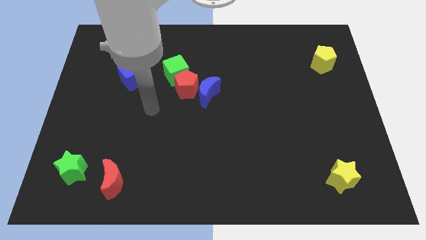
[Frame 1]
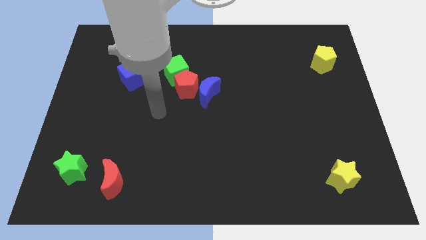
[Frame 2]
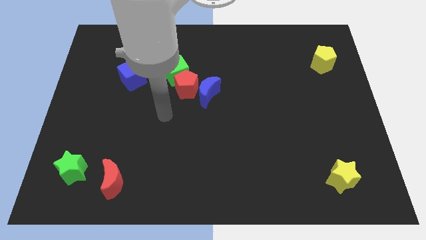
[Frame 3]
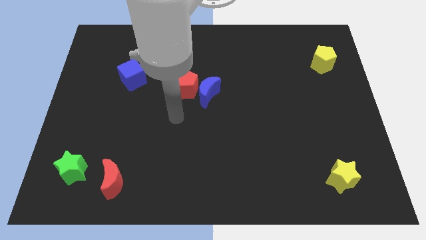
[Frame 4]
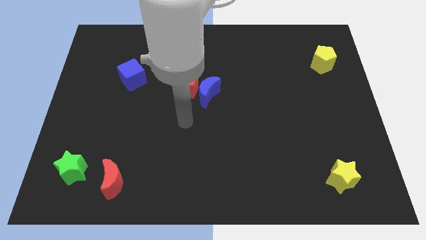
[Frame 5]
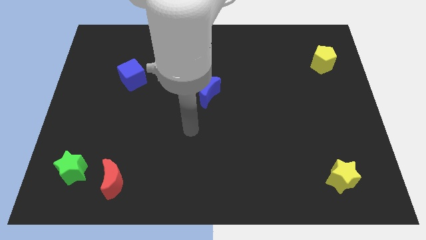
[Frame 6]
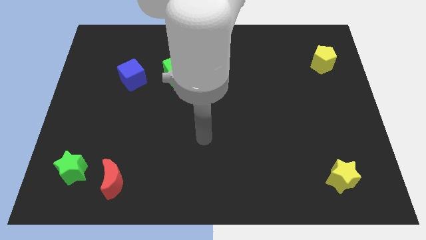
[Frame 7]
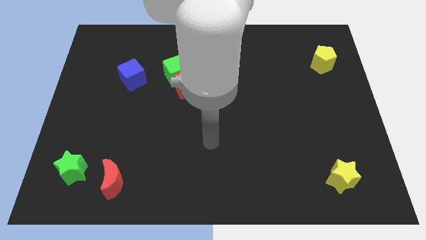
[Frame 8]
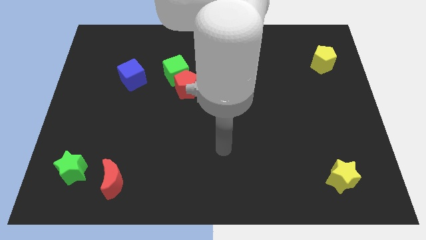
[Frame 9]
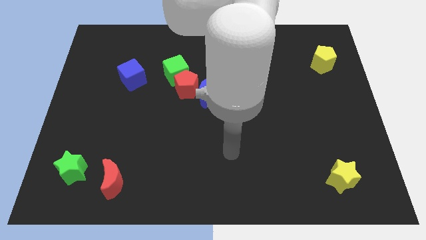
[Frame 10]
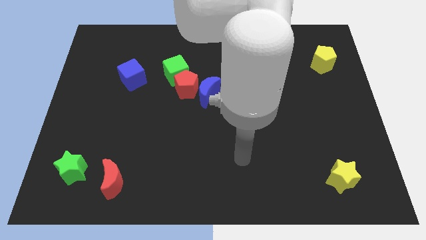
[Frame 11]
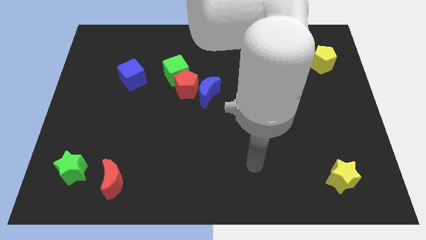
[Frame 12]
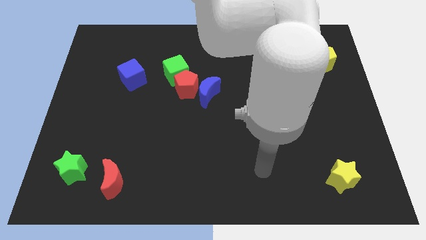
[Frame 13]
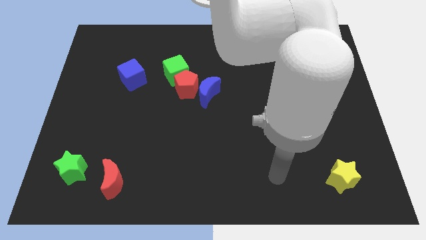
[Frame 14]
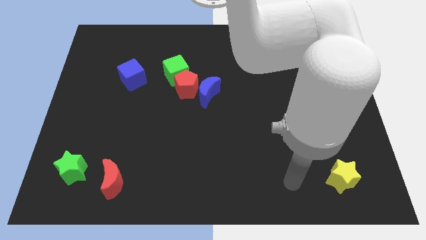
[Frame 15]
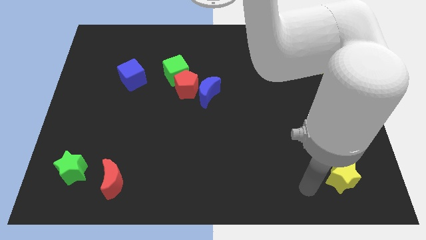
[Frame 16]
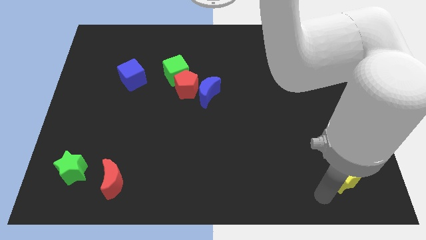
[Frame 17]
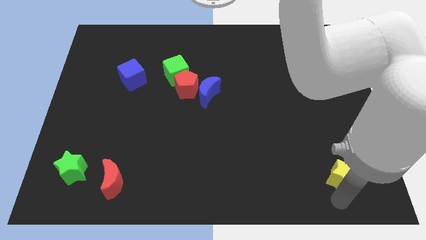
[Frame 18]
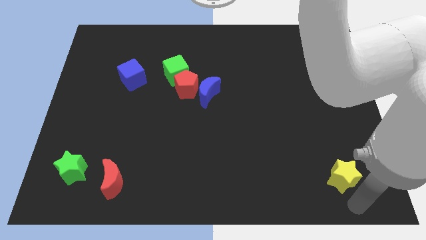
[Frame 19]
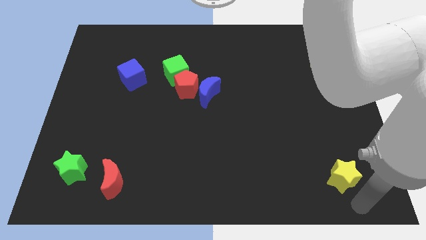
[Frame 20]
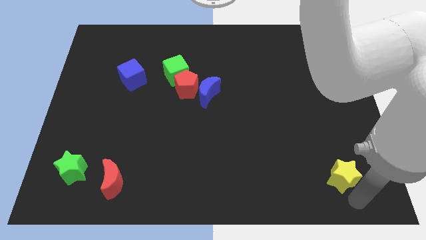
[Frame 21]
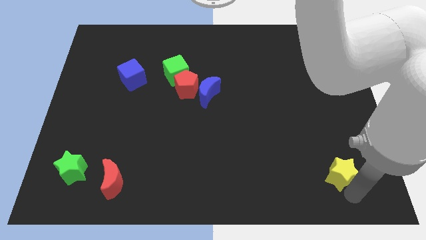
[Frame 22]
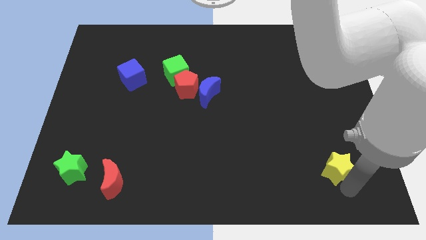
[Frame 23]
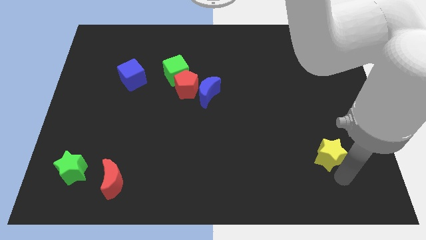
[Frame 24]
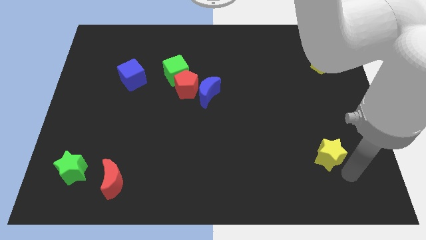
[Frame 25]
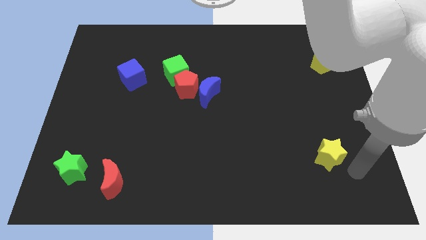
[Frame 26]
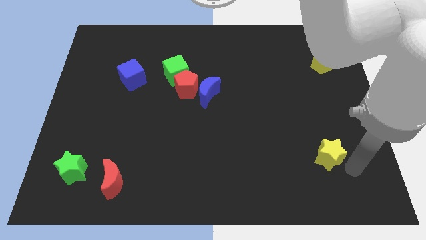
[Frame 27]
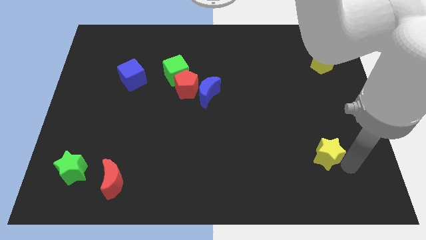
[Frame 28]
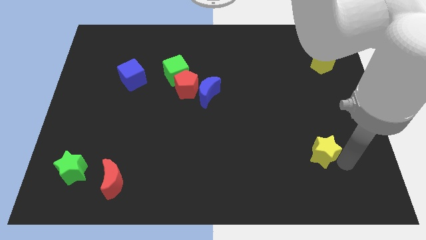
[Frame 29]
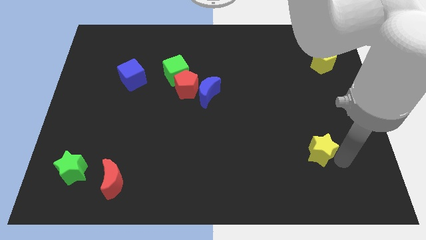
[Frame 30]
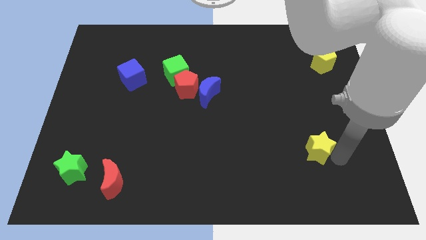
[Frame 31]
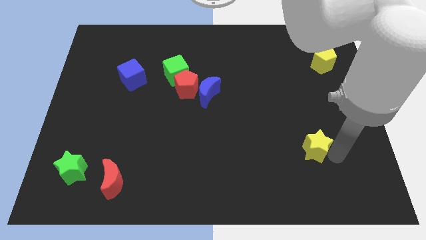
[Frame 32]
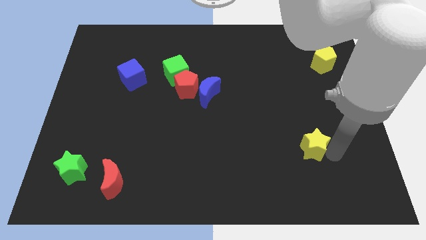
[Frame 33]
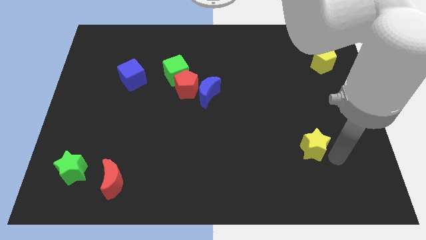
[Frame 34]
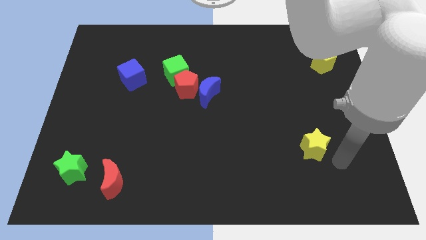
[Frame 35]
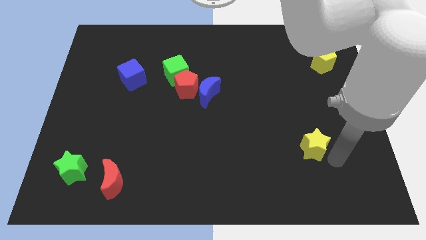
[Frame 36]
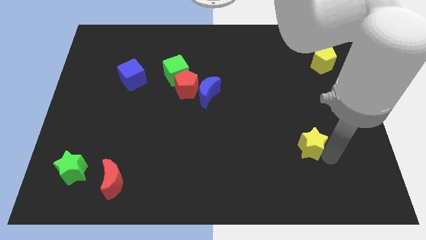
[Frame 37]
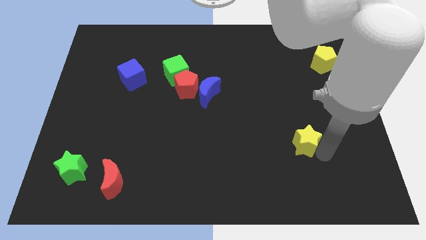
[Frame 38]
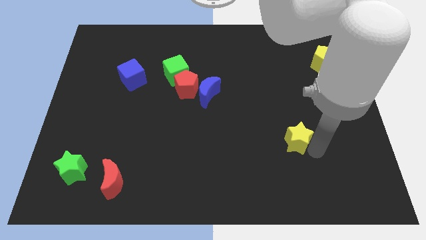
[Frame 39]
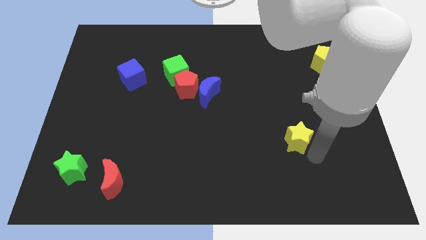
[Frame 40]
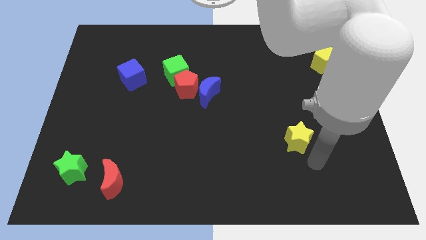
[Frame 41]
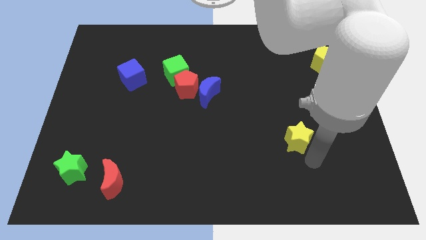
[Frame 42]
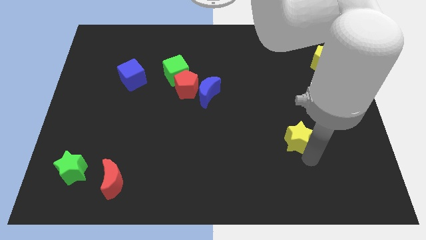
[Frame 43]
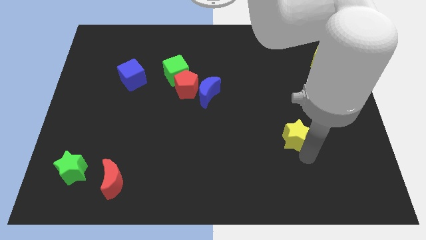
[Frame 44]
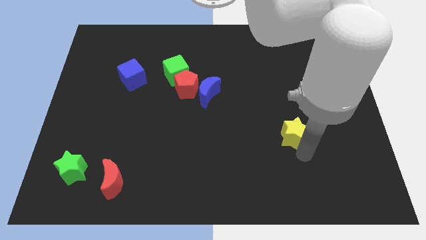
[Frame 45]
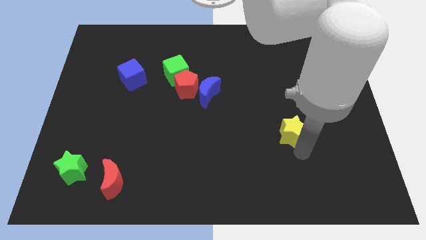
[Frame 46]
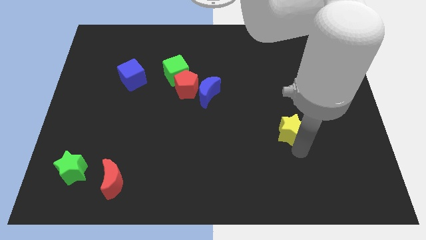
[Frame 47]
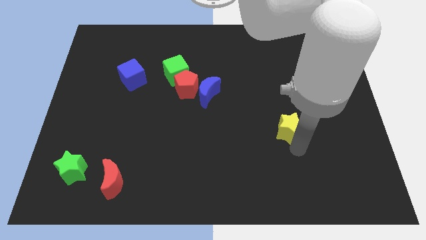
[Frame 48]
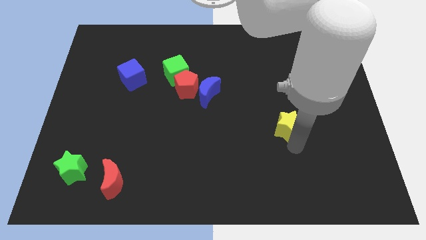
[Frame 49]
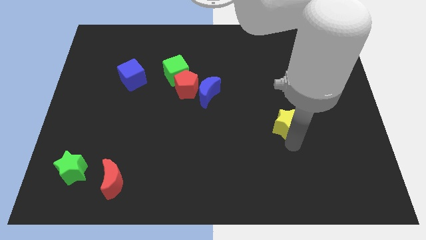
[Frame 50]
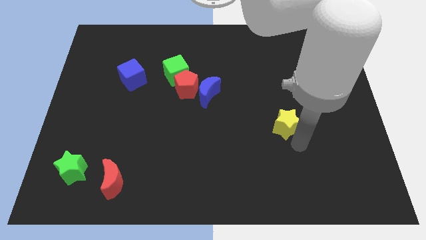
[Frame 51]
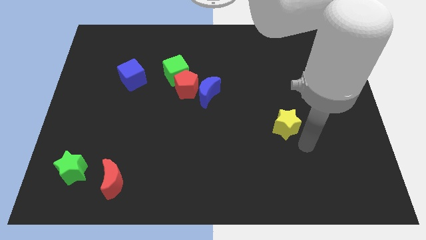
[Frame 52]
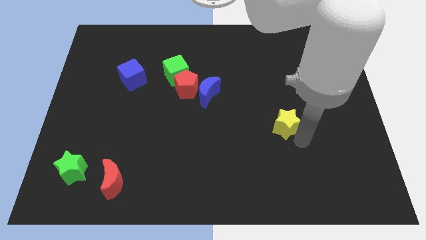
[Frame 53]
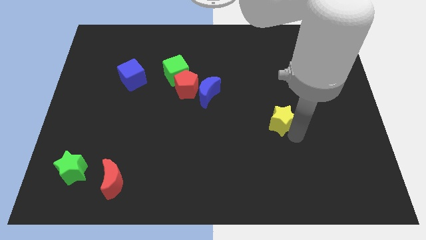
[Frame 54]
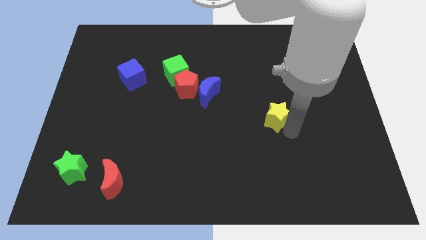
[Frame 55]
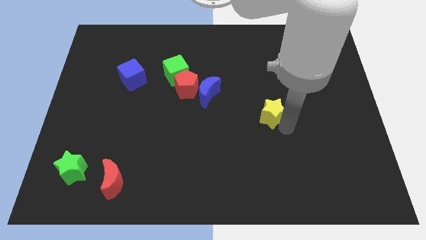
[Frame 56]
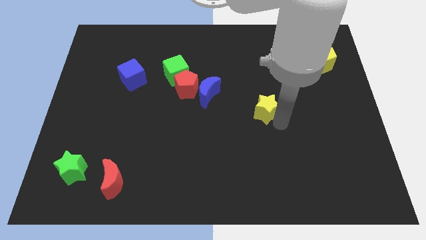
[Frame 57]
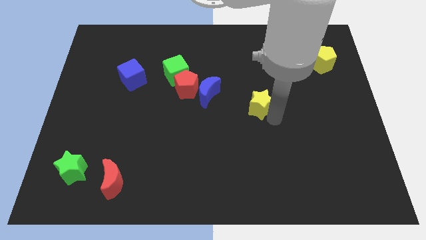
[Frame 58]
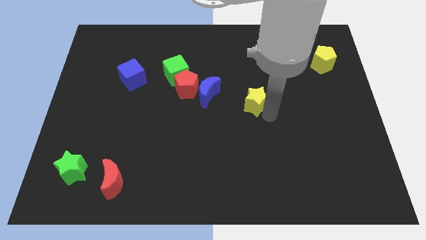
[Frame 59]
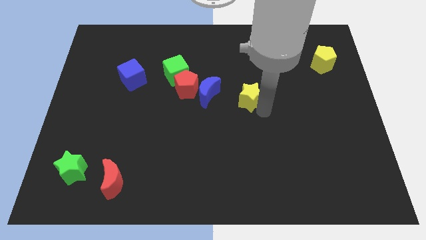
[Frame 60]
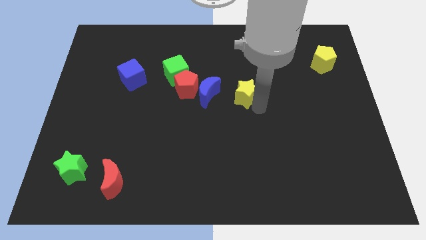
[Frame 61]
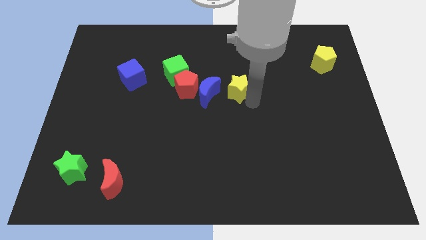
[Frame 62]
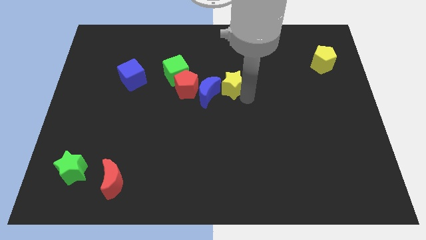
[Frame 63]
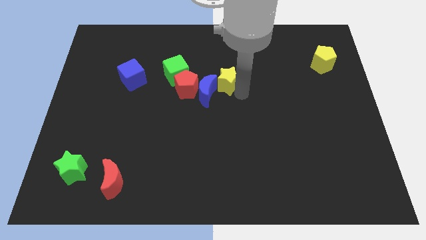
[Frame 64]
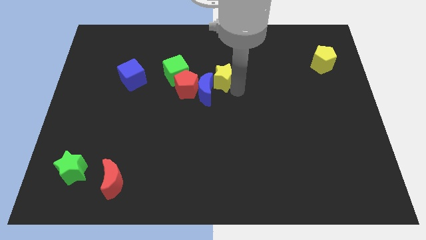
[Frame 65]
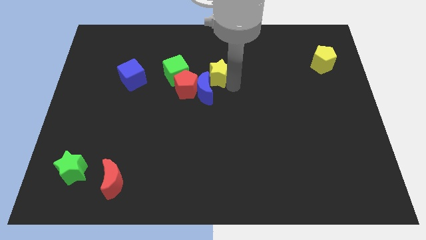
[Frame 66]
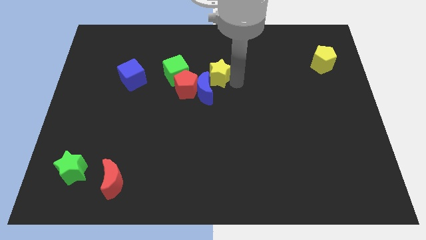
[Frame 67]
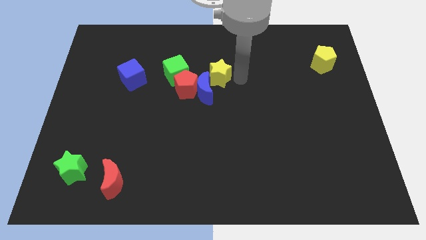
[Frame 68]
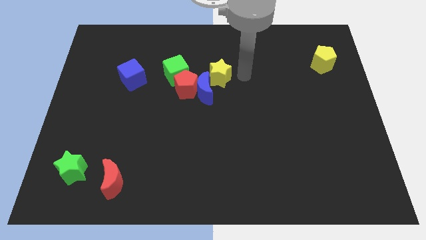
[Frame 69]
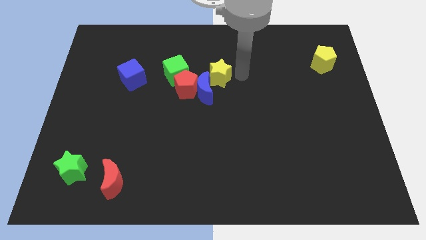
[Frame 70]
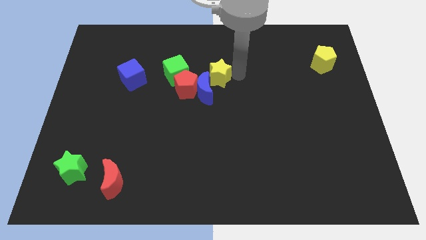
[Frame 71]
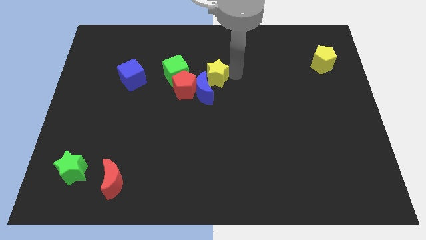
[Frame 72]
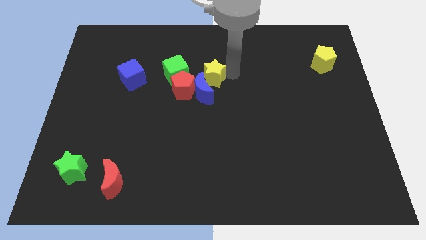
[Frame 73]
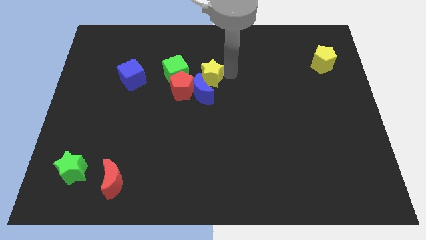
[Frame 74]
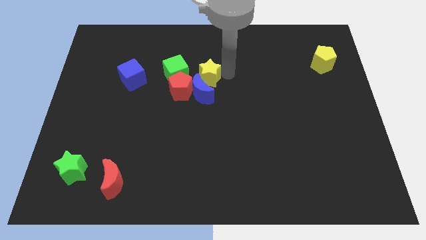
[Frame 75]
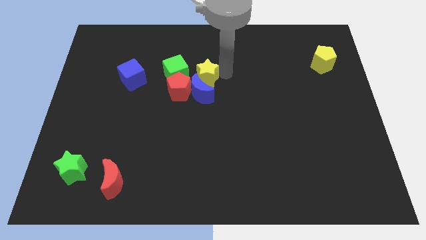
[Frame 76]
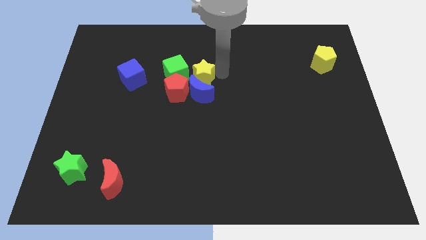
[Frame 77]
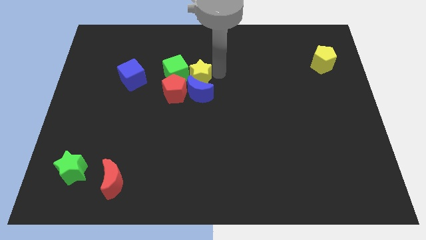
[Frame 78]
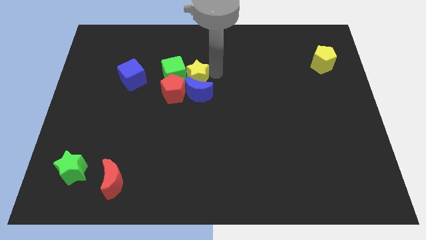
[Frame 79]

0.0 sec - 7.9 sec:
put the yellow star right of the blue cube
